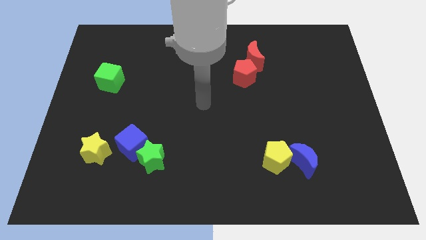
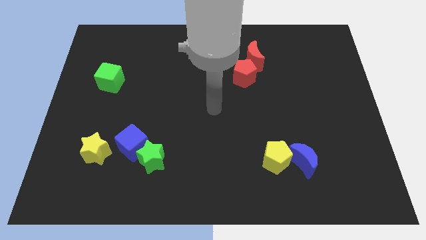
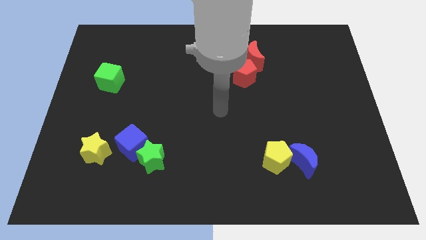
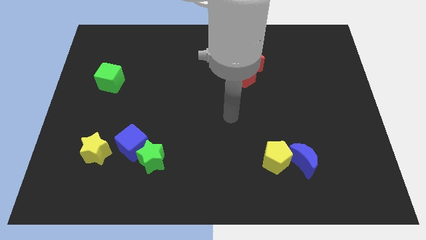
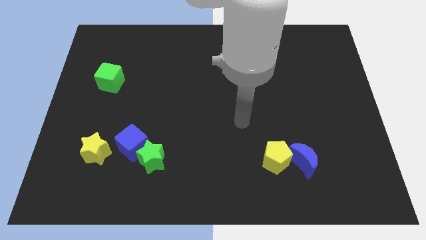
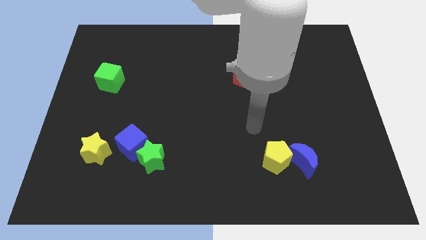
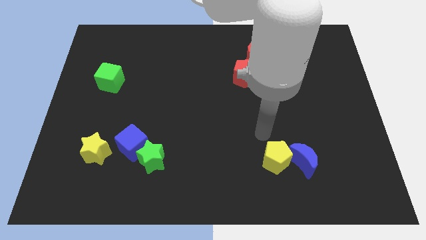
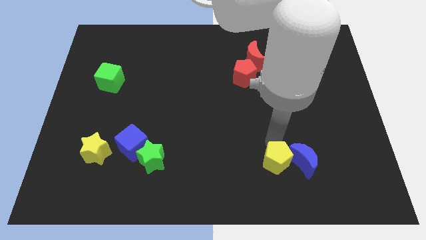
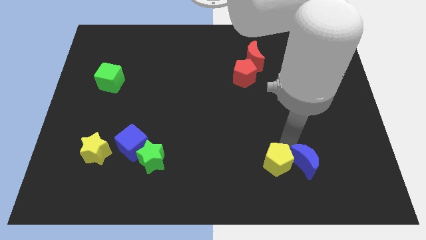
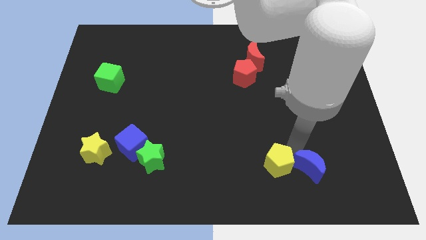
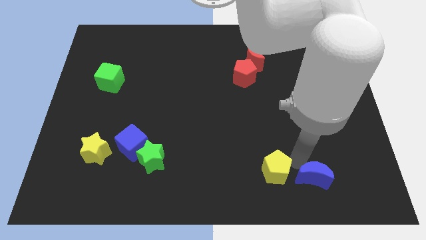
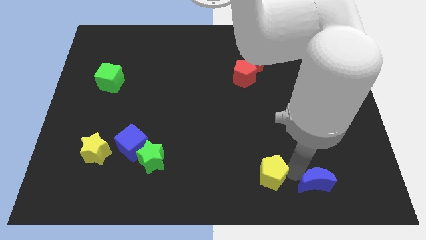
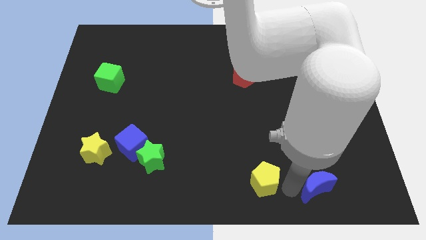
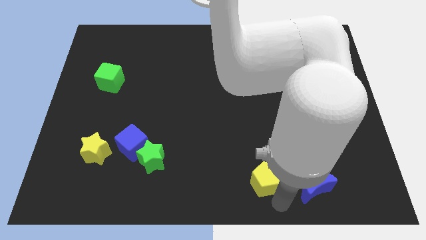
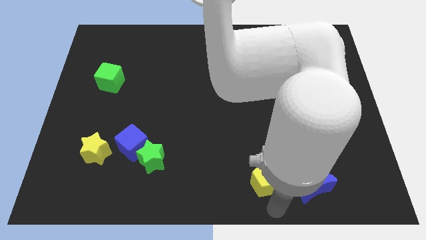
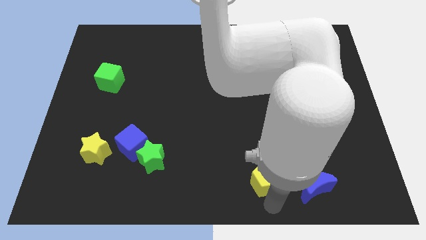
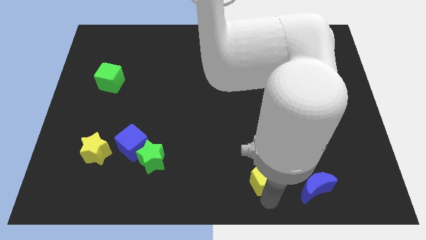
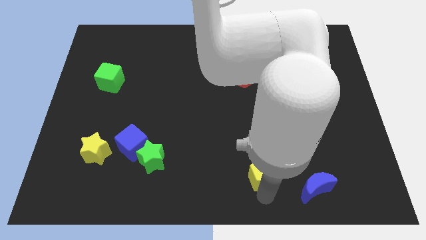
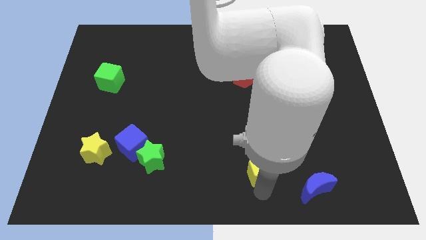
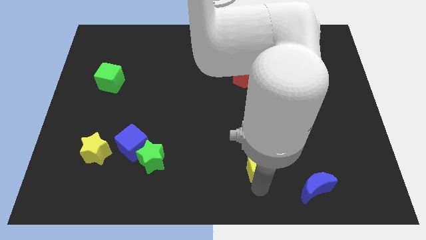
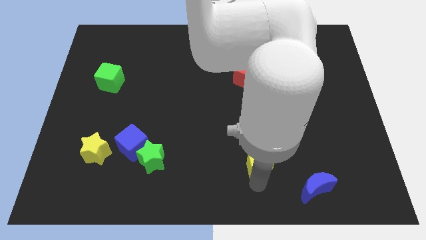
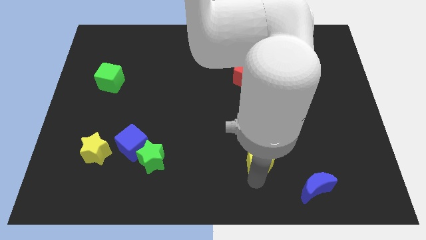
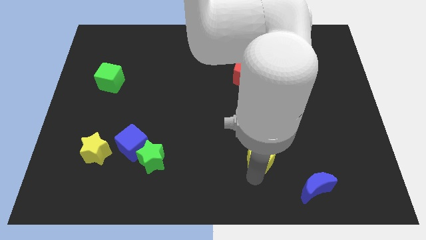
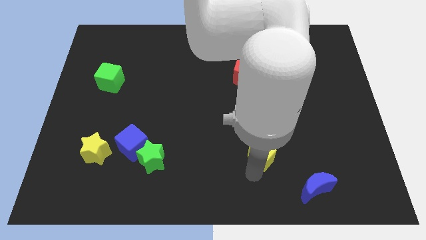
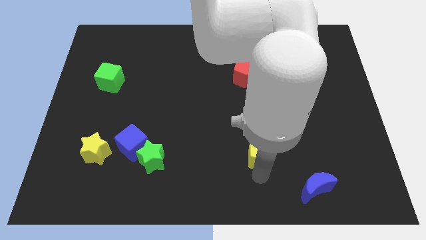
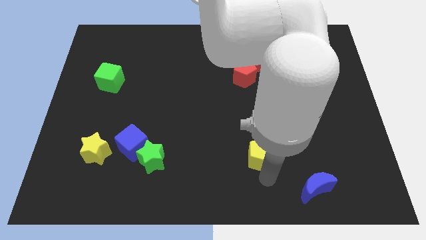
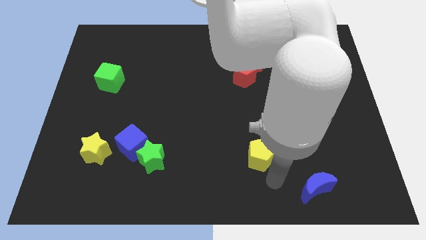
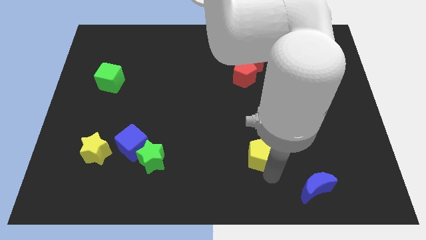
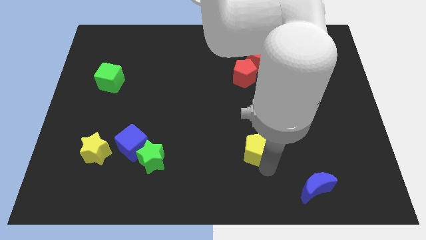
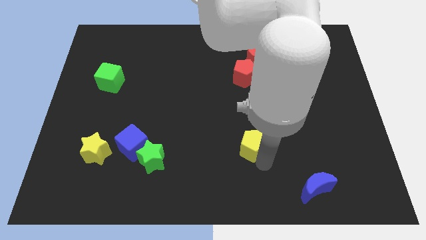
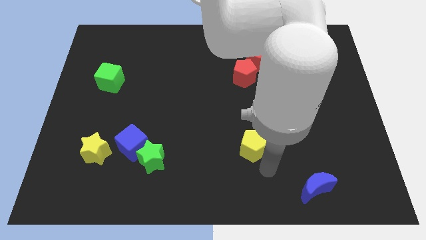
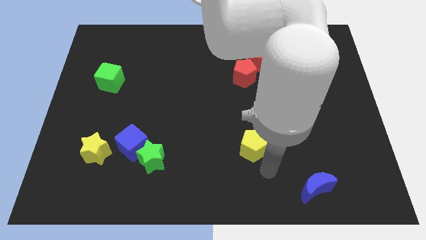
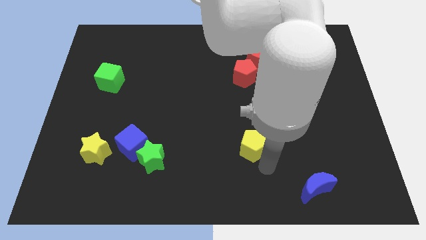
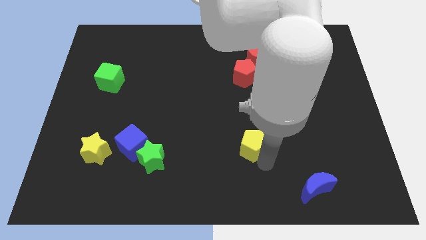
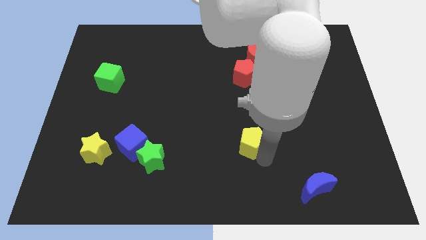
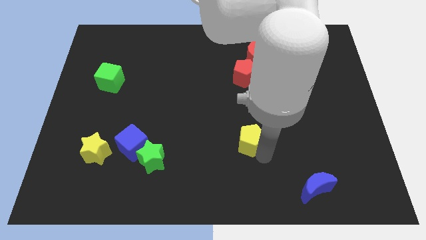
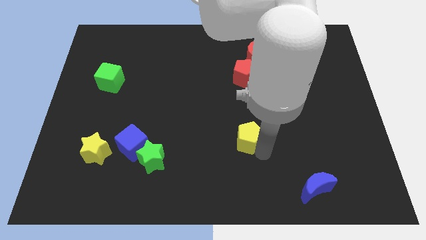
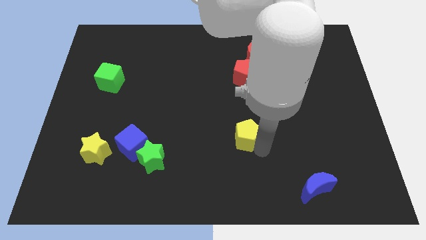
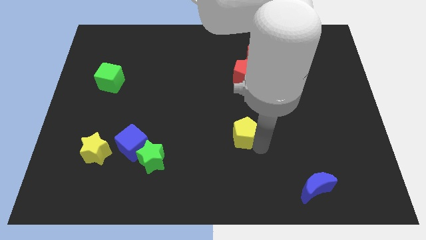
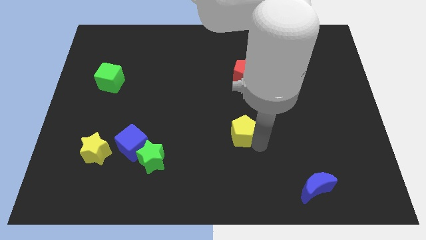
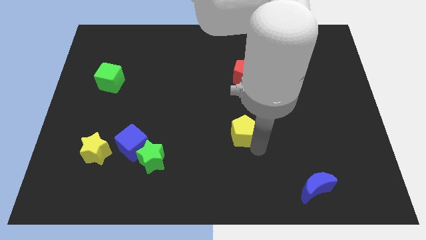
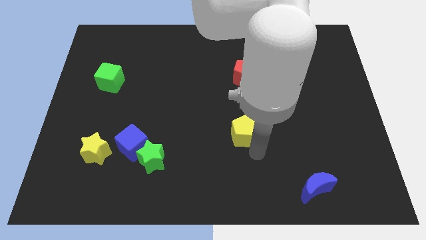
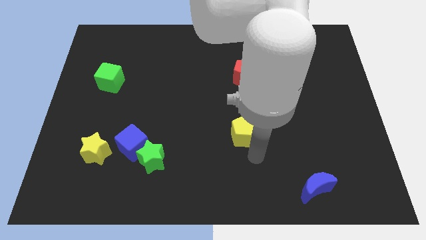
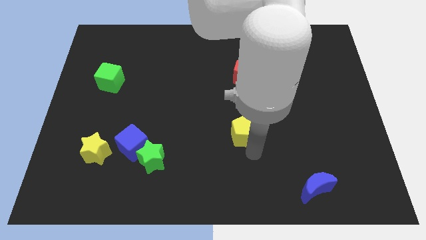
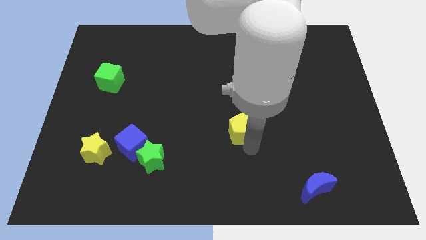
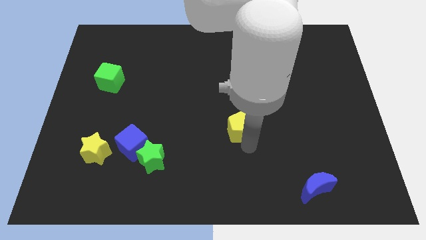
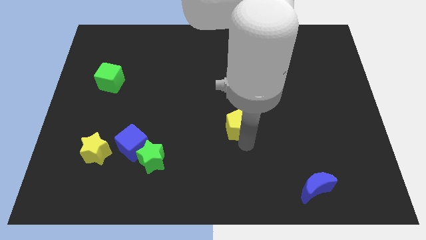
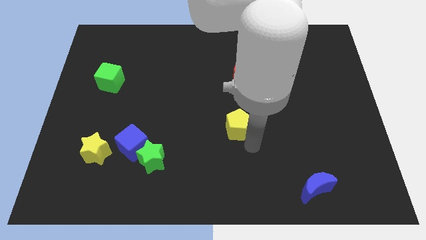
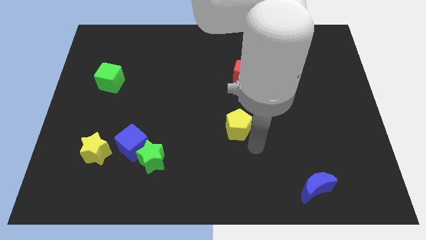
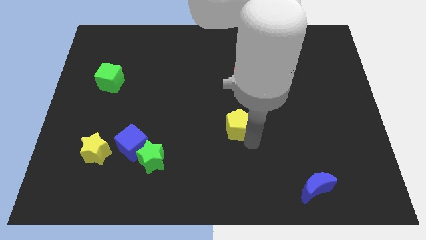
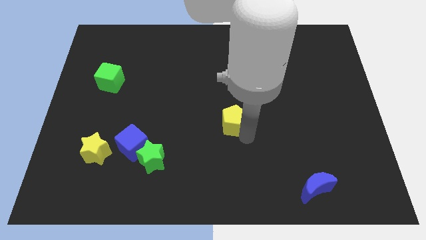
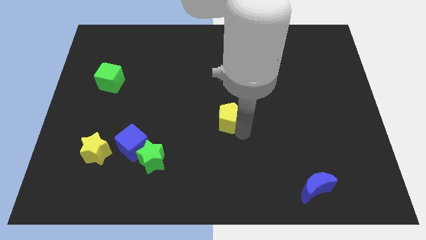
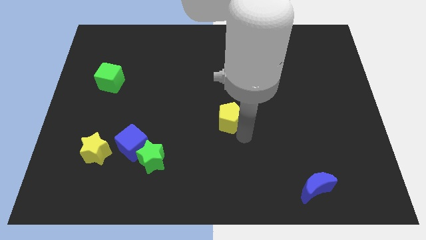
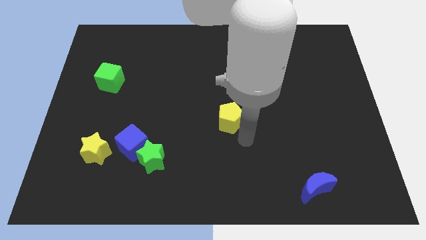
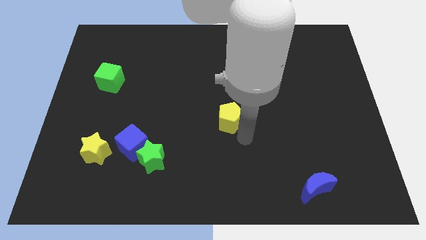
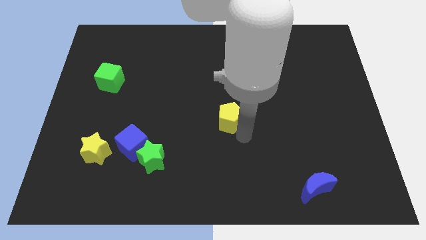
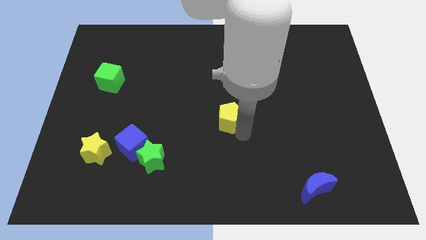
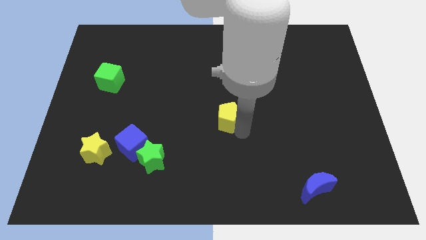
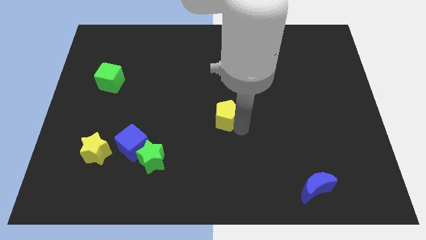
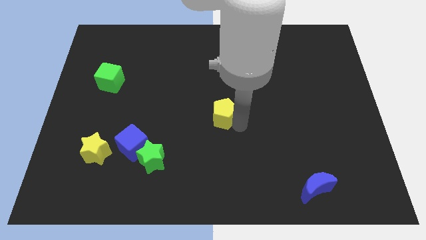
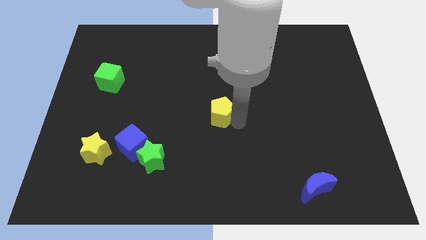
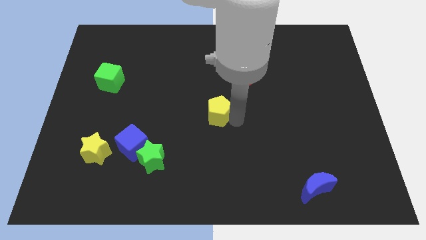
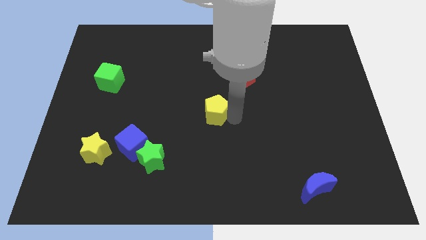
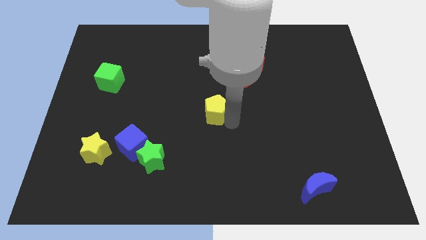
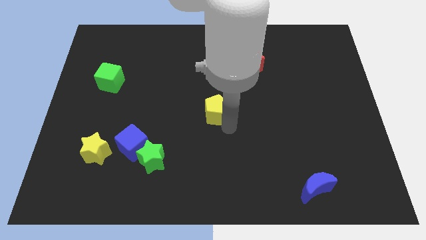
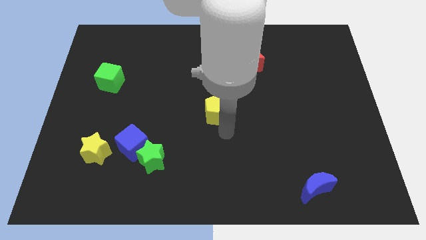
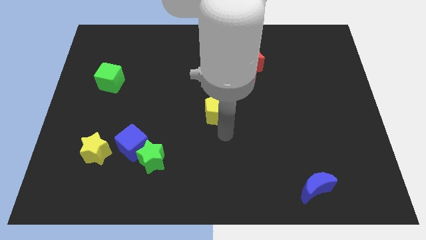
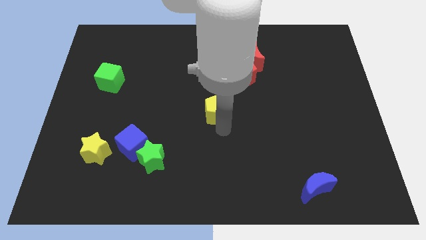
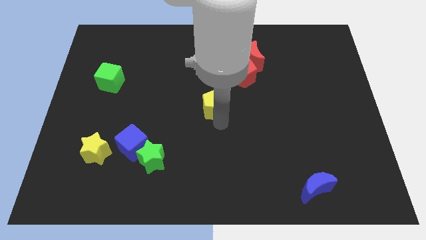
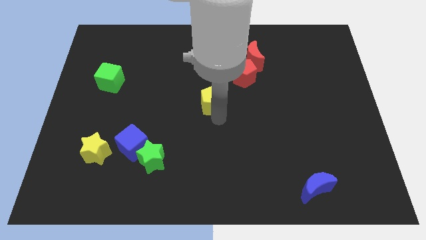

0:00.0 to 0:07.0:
move the yellow pentagon up and left

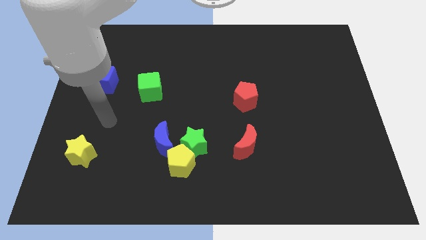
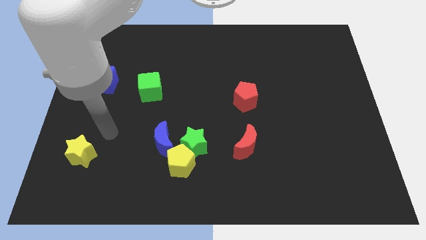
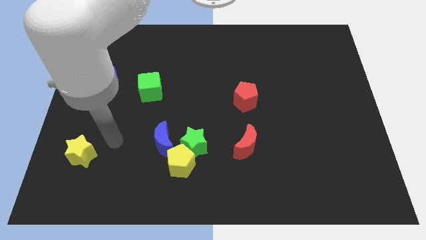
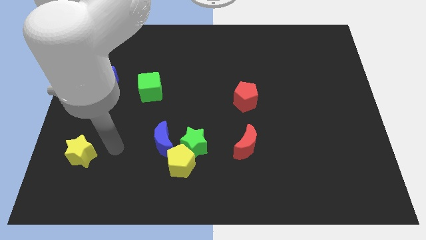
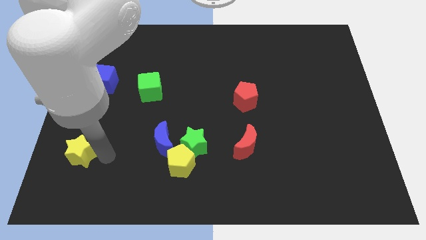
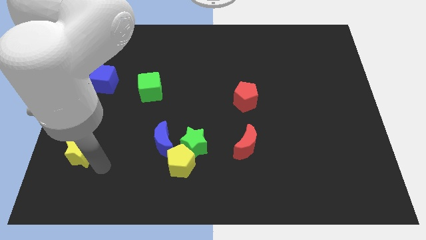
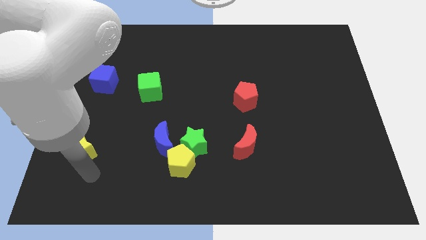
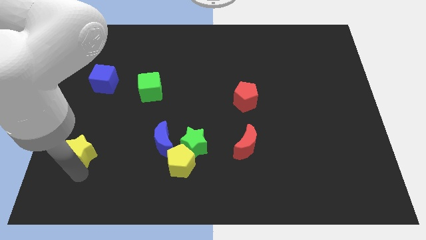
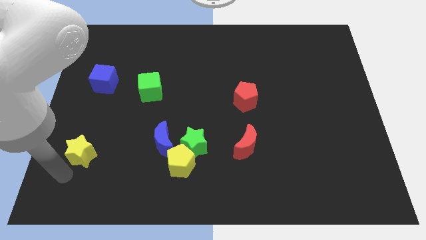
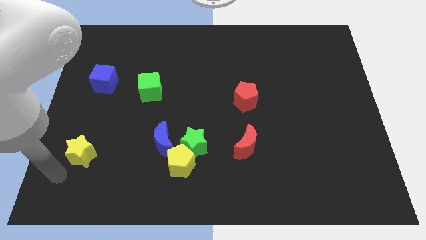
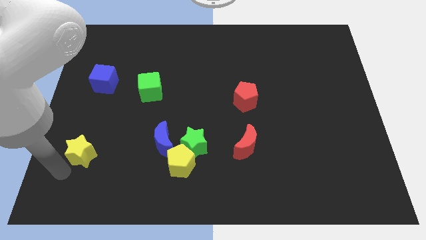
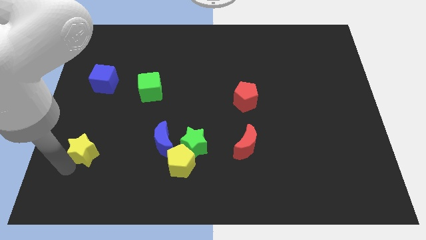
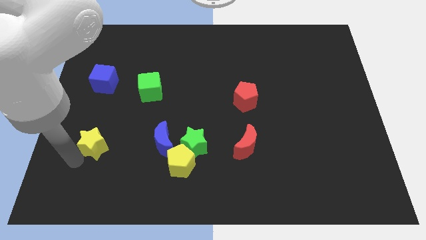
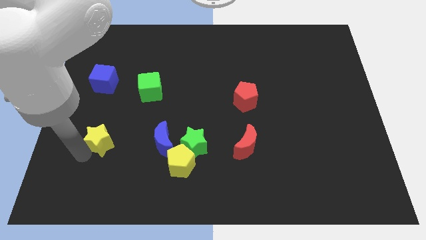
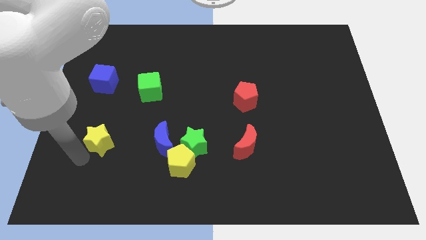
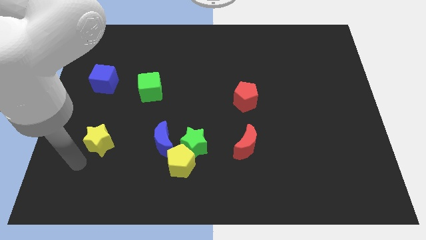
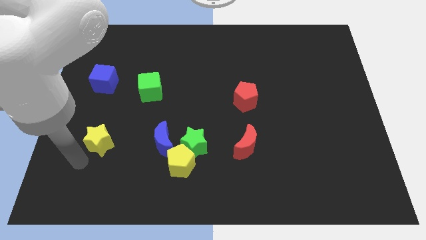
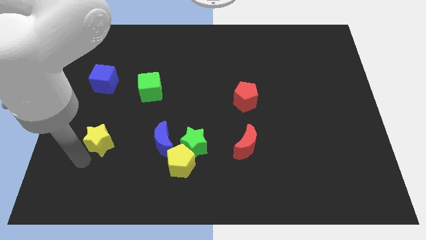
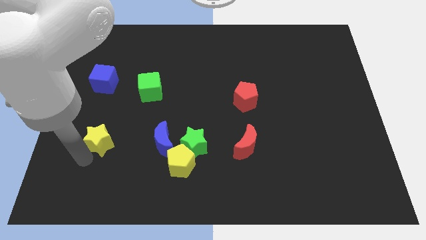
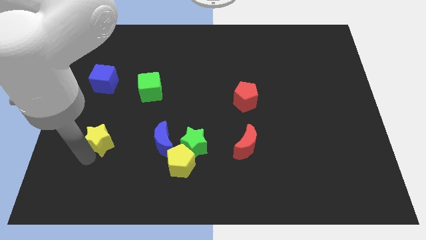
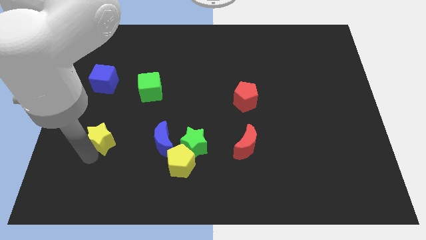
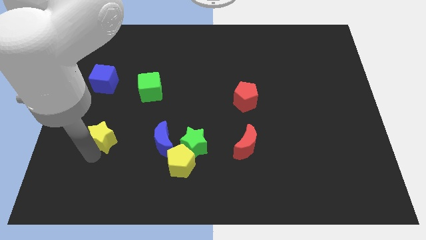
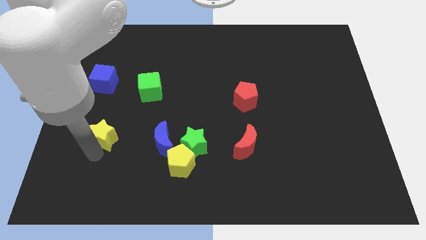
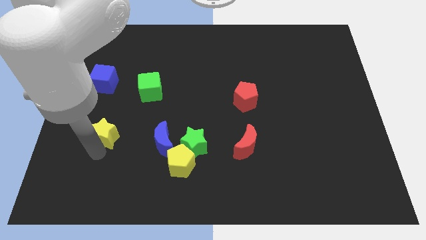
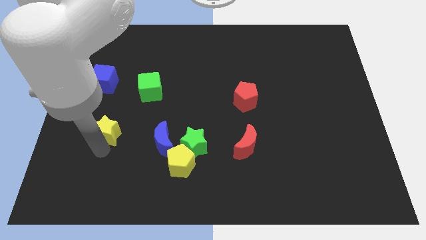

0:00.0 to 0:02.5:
push the yellow star a bit up and right diagonally
